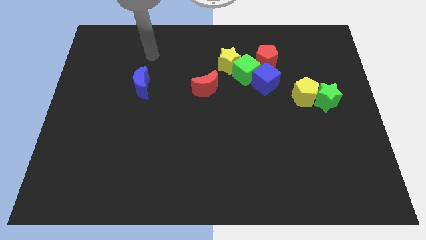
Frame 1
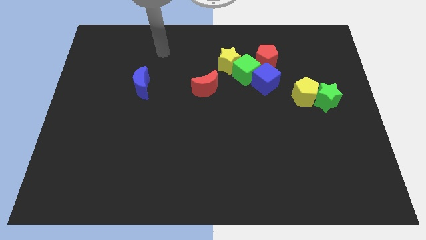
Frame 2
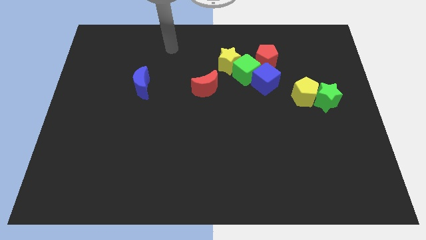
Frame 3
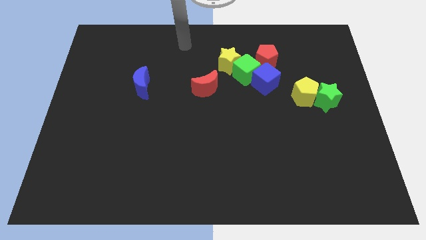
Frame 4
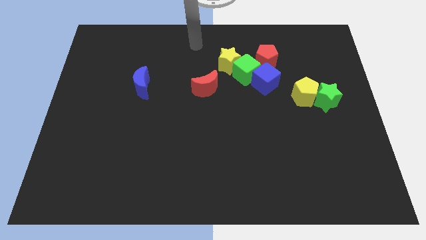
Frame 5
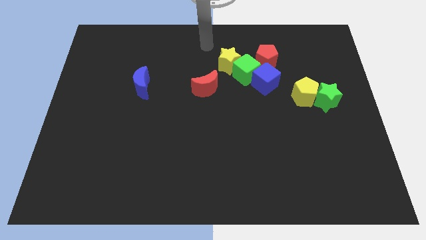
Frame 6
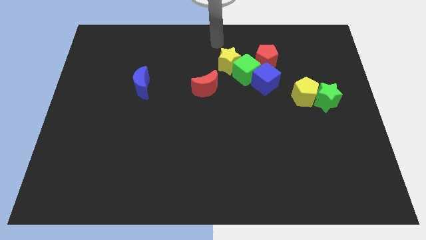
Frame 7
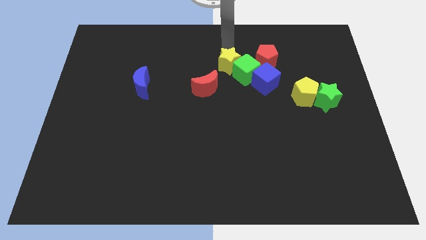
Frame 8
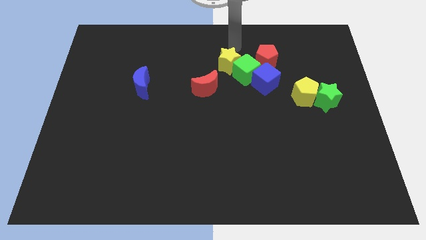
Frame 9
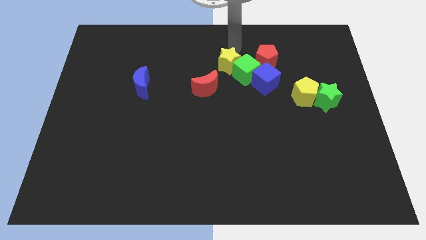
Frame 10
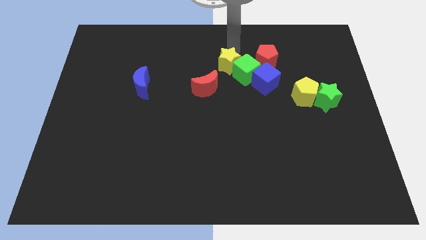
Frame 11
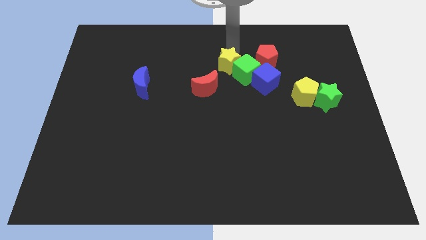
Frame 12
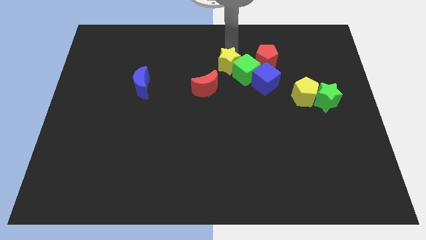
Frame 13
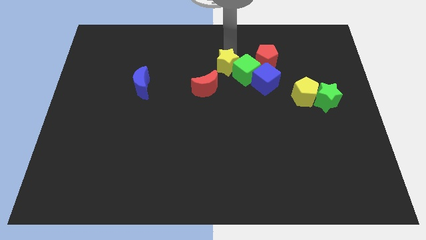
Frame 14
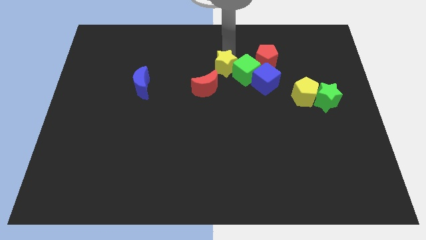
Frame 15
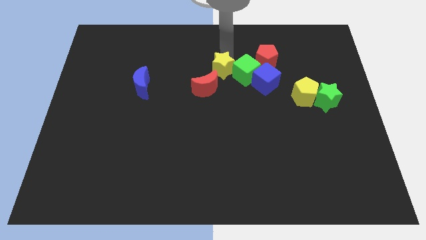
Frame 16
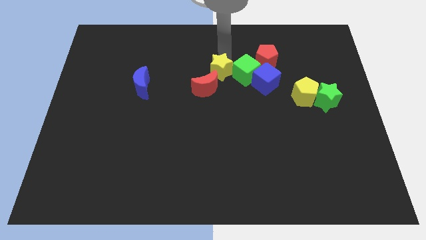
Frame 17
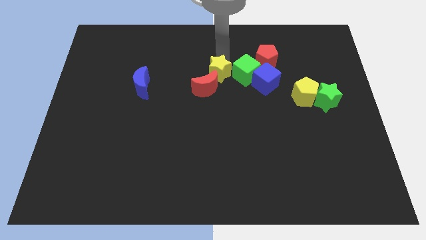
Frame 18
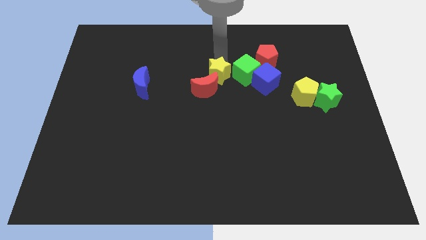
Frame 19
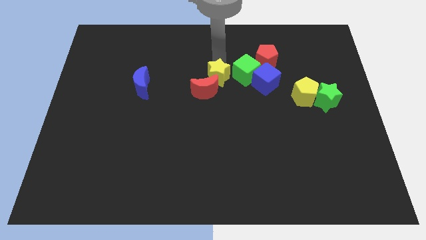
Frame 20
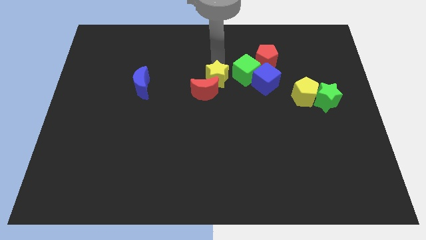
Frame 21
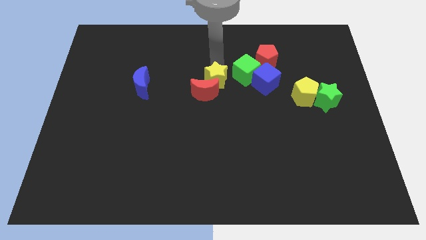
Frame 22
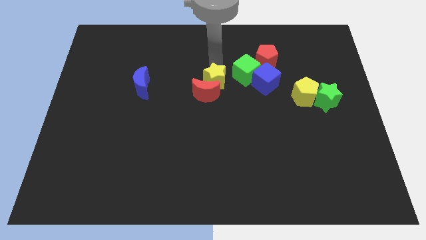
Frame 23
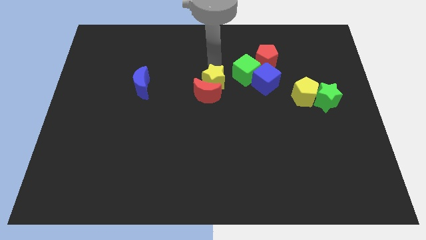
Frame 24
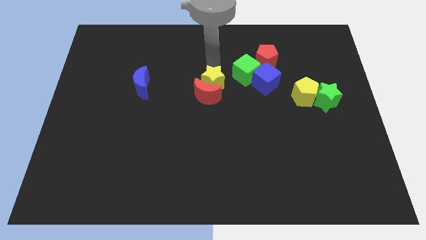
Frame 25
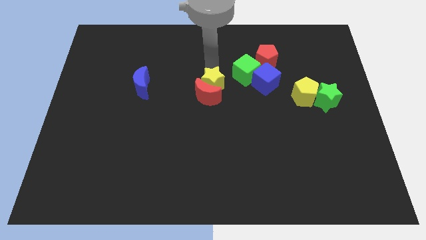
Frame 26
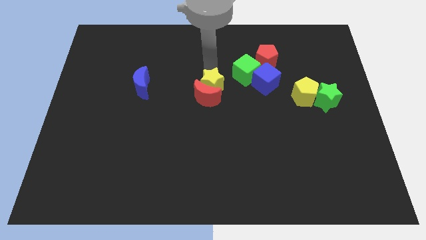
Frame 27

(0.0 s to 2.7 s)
push the yellow star somewhat downwards

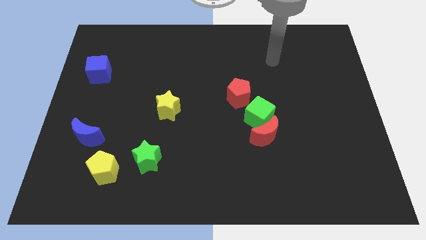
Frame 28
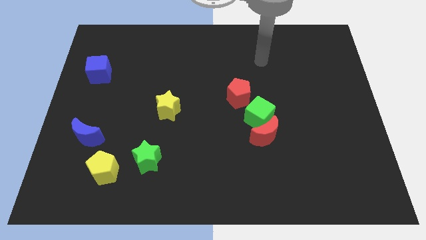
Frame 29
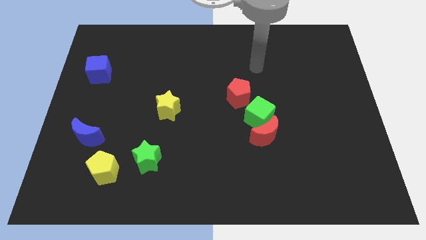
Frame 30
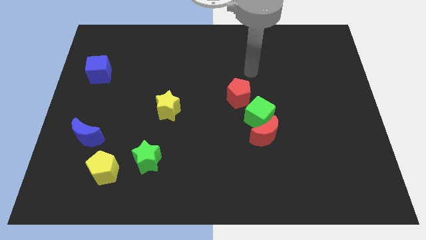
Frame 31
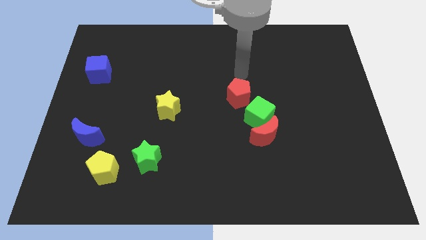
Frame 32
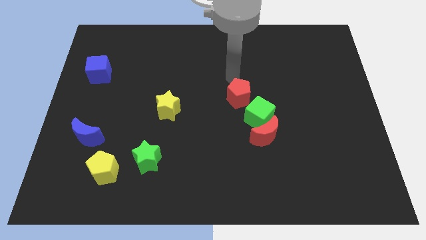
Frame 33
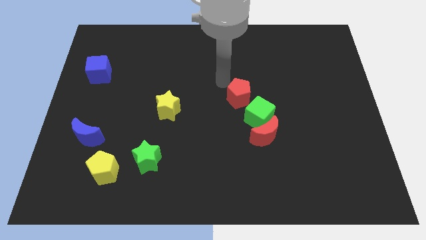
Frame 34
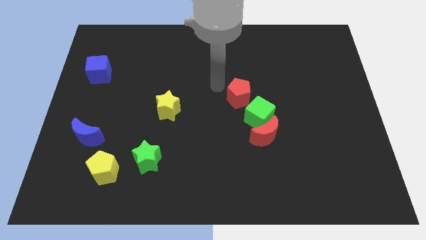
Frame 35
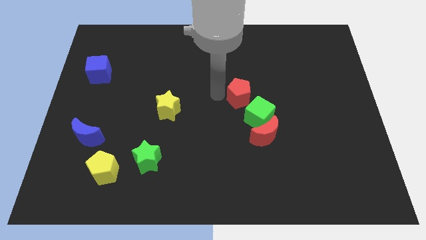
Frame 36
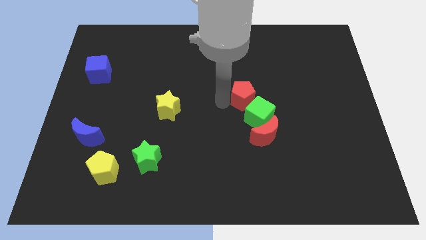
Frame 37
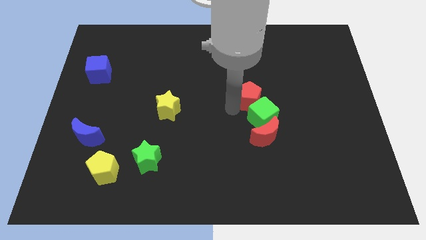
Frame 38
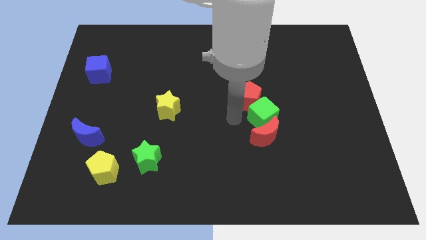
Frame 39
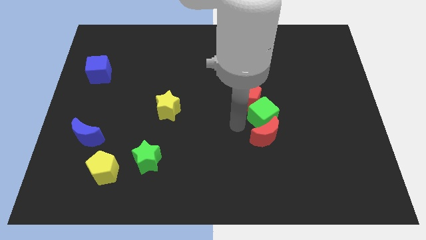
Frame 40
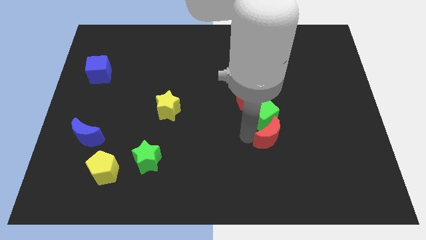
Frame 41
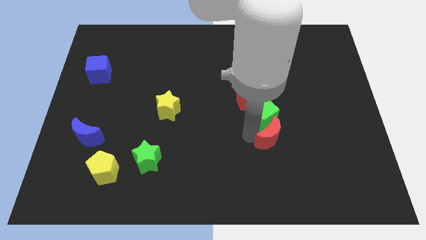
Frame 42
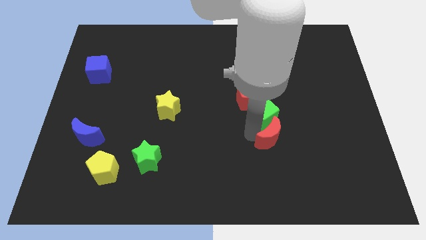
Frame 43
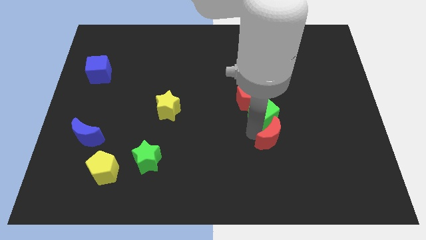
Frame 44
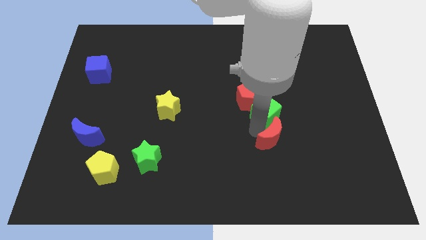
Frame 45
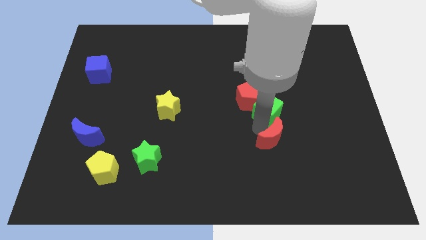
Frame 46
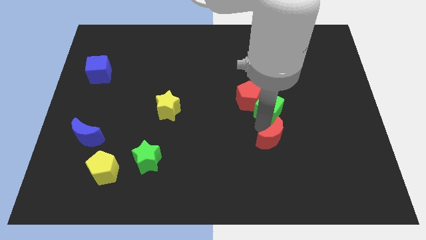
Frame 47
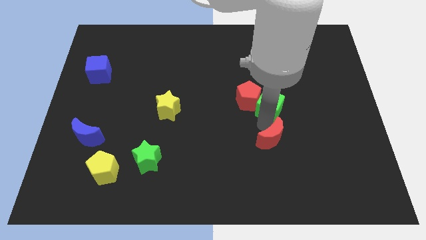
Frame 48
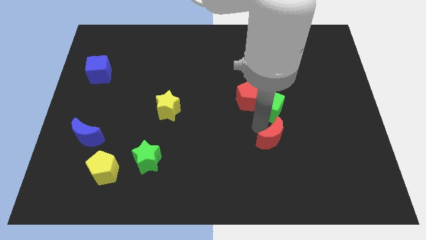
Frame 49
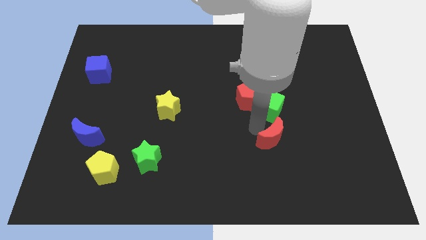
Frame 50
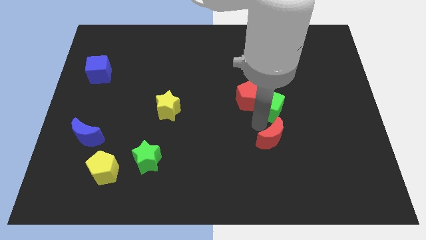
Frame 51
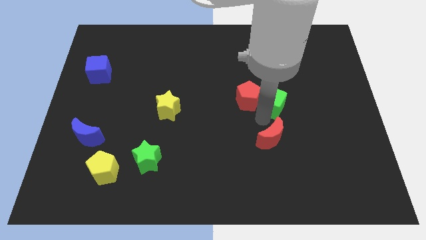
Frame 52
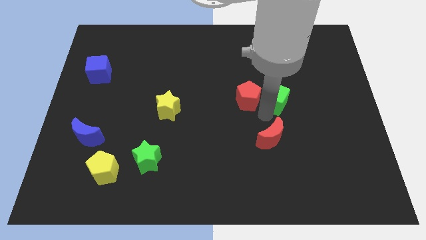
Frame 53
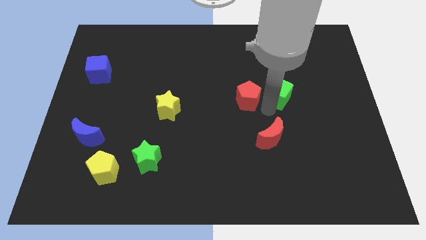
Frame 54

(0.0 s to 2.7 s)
slightly slide the green cube up and to the right diagonally

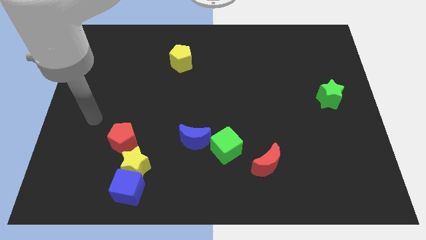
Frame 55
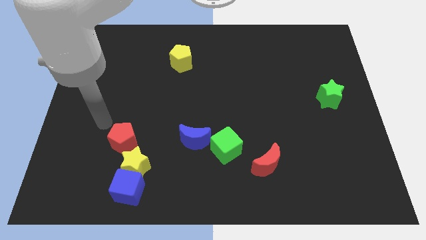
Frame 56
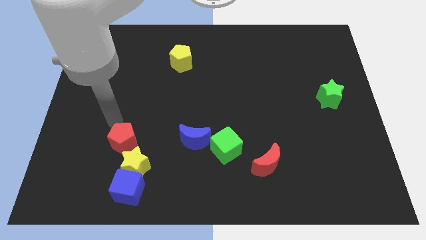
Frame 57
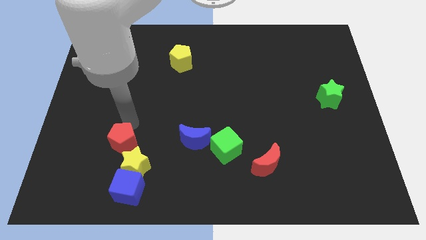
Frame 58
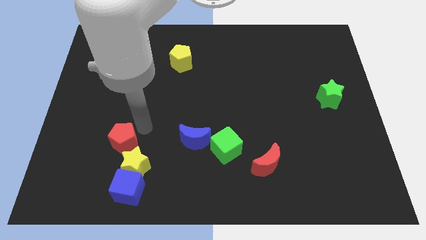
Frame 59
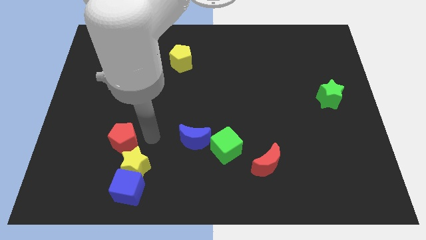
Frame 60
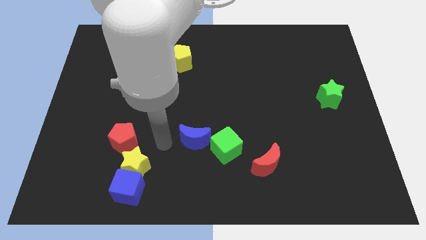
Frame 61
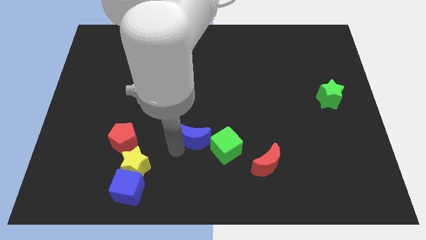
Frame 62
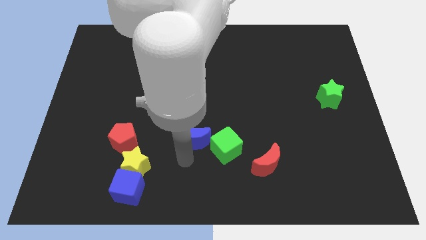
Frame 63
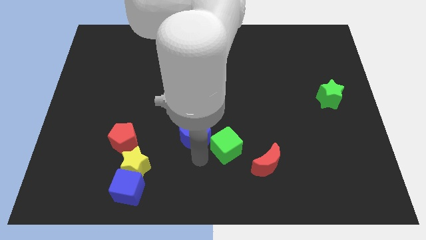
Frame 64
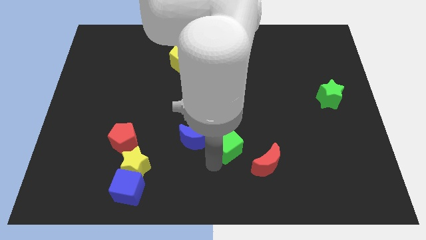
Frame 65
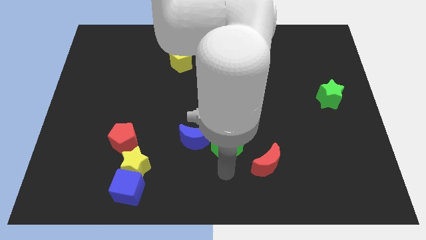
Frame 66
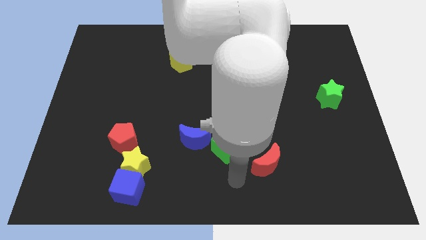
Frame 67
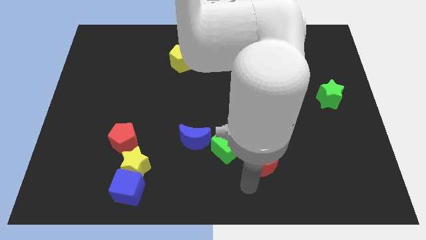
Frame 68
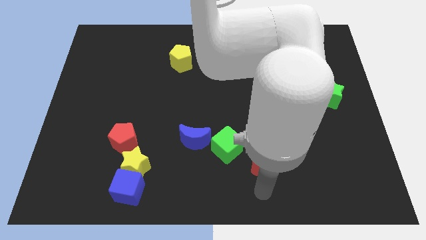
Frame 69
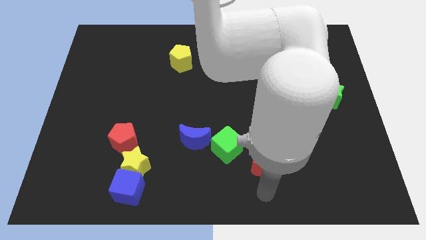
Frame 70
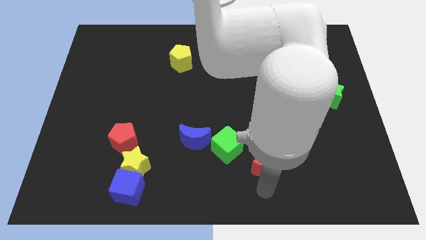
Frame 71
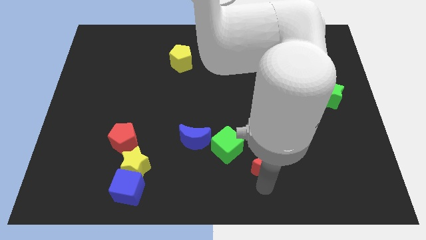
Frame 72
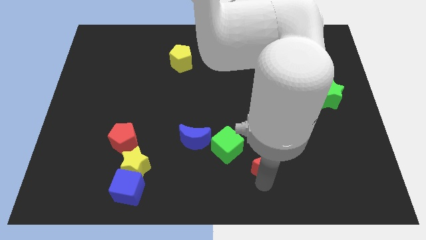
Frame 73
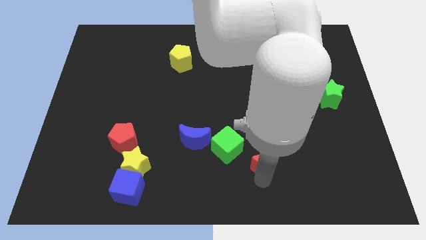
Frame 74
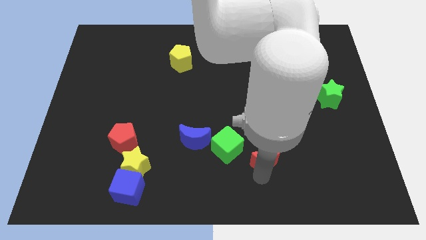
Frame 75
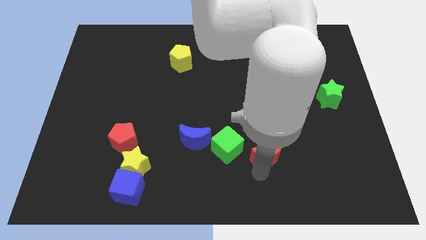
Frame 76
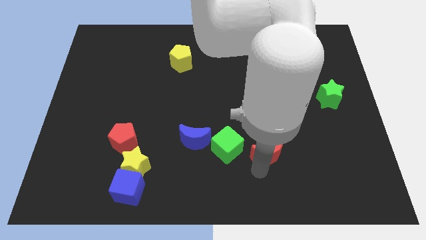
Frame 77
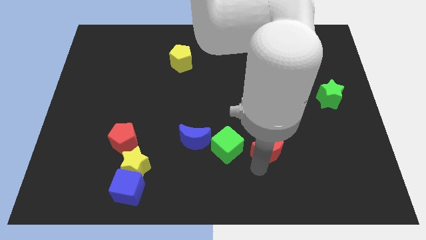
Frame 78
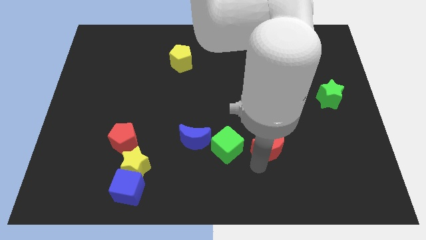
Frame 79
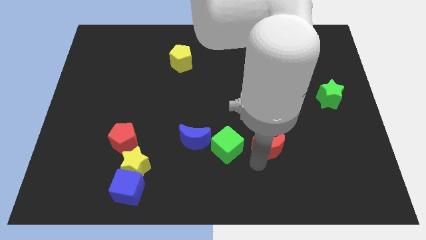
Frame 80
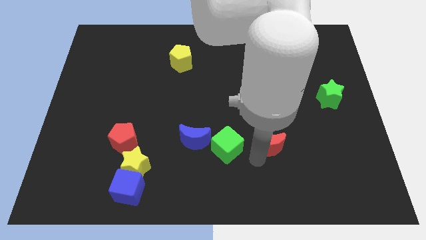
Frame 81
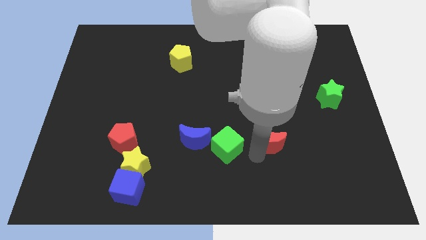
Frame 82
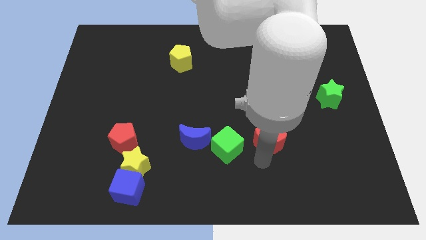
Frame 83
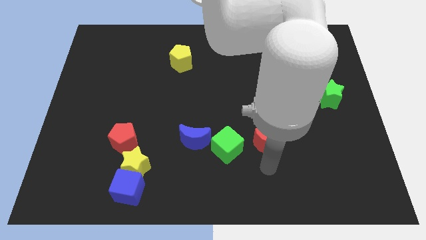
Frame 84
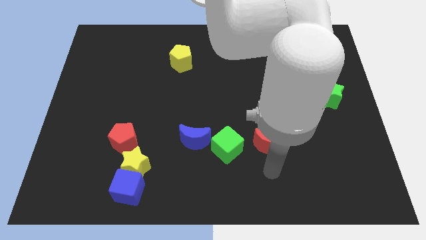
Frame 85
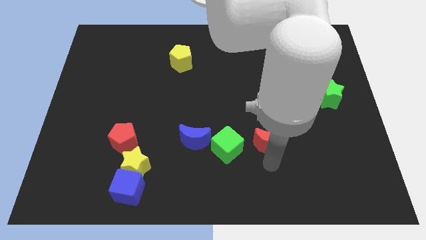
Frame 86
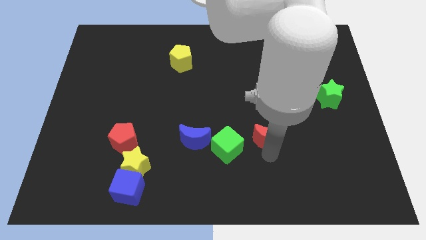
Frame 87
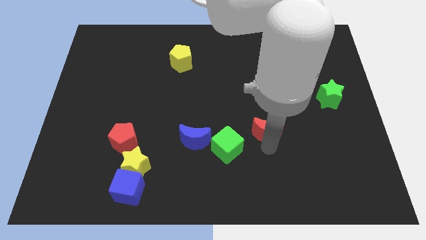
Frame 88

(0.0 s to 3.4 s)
push the red moon a little bit up
